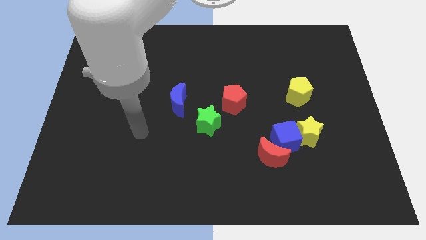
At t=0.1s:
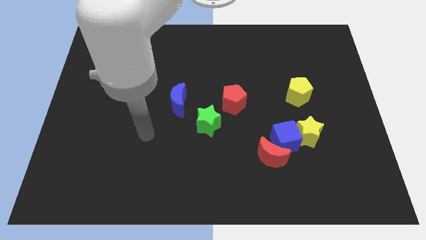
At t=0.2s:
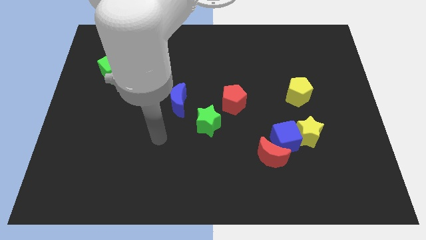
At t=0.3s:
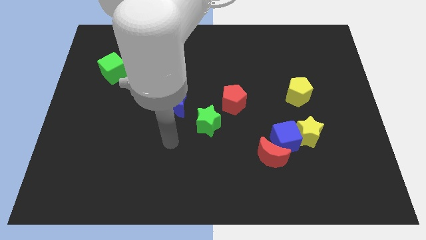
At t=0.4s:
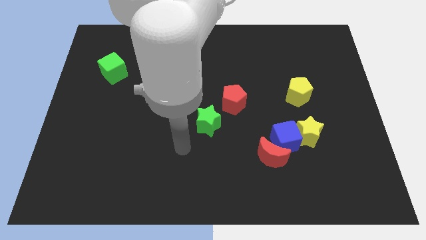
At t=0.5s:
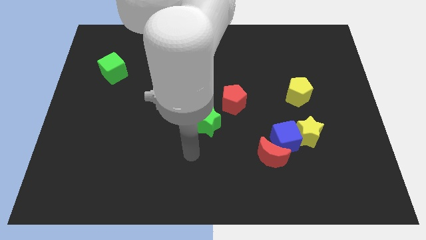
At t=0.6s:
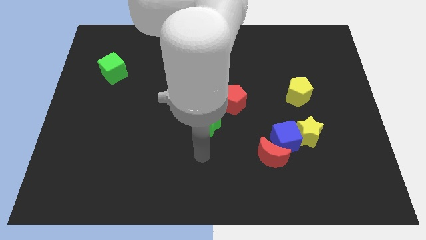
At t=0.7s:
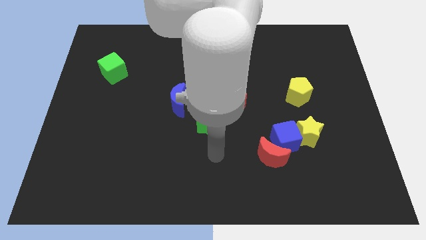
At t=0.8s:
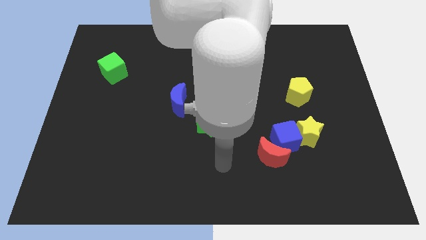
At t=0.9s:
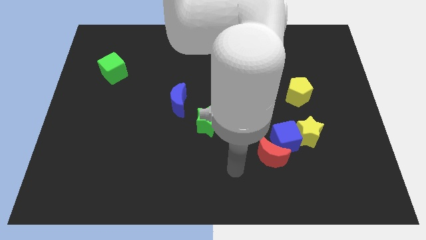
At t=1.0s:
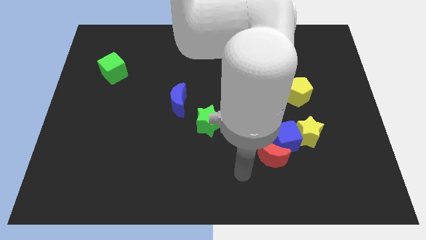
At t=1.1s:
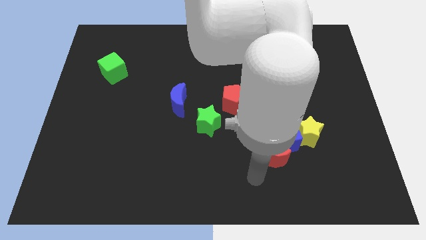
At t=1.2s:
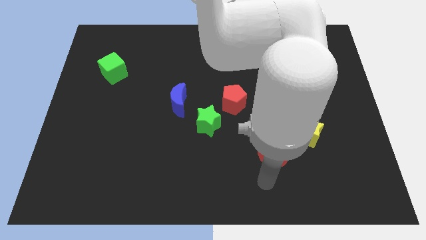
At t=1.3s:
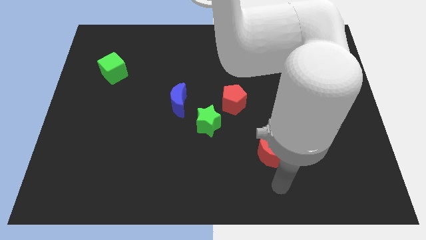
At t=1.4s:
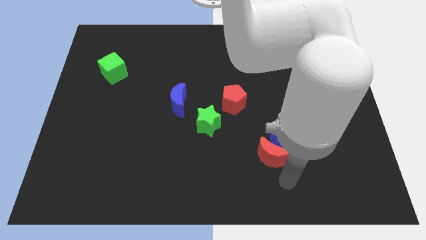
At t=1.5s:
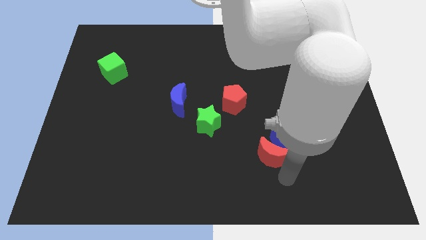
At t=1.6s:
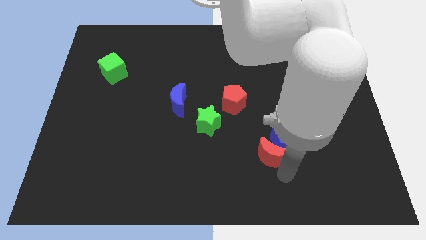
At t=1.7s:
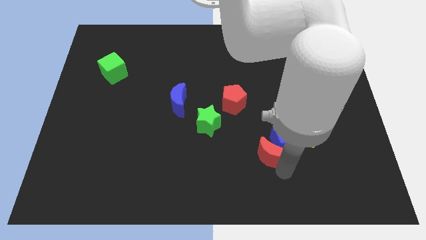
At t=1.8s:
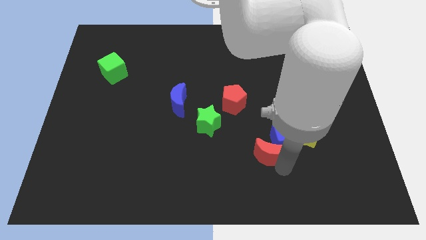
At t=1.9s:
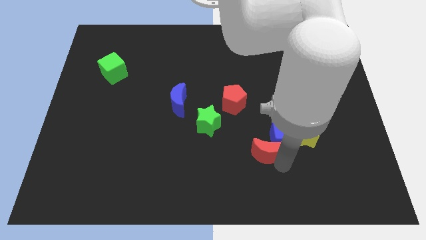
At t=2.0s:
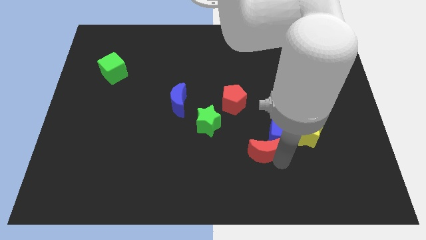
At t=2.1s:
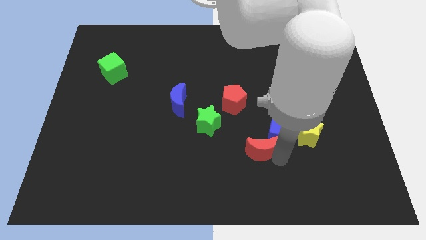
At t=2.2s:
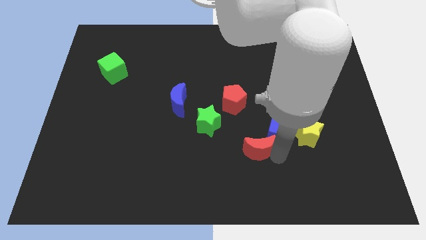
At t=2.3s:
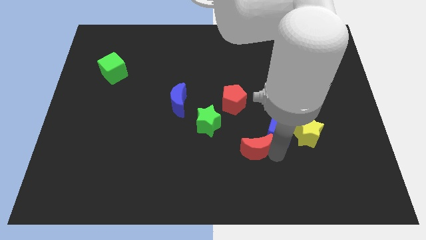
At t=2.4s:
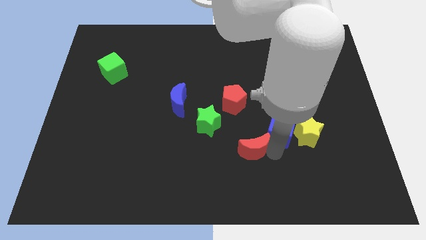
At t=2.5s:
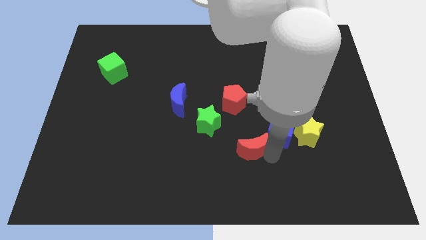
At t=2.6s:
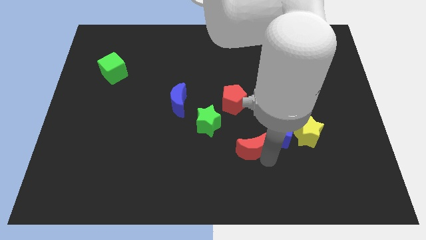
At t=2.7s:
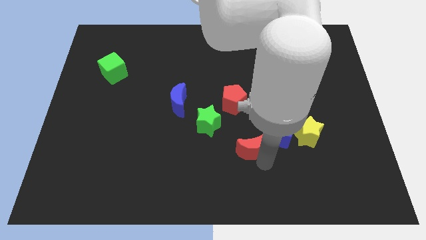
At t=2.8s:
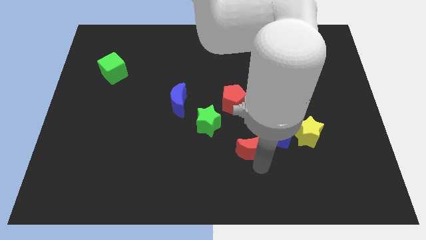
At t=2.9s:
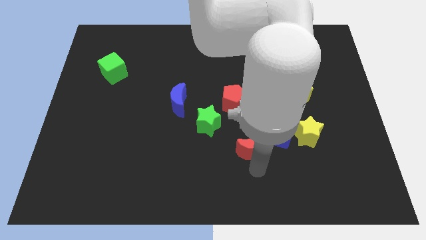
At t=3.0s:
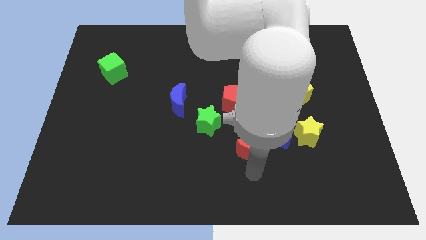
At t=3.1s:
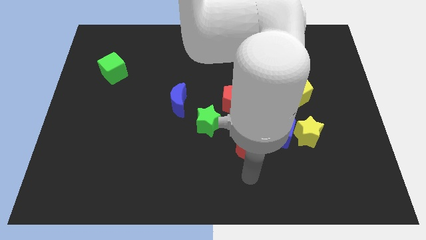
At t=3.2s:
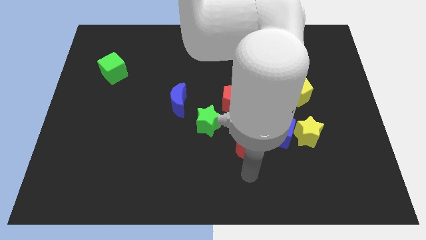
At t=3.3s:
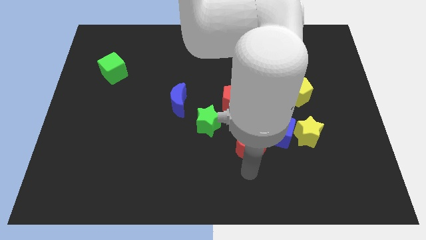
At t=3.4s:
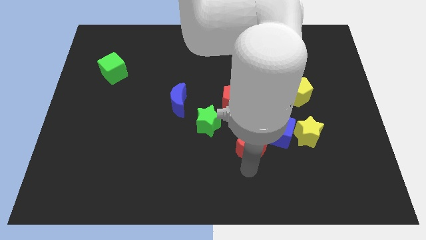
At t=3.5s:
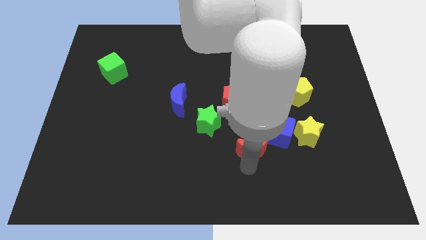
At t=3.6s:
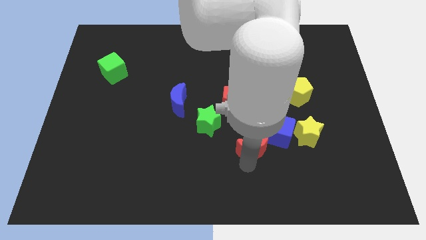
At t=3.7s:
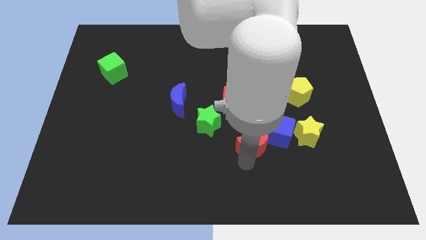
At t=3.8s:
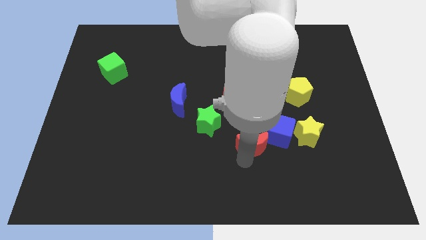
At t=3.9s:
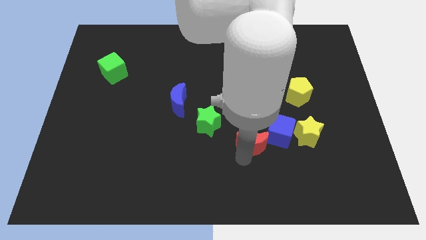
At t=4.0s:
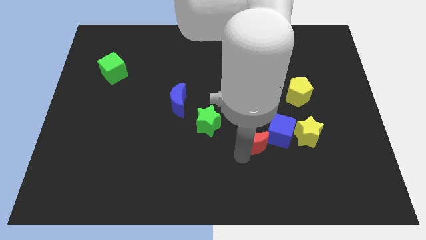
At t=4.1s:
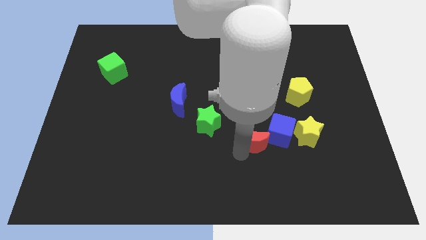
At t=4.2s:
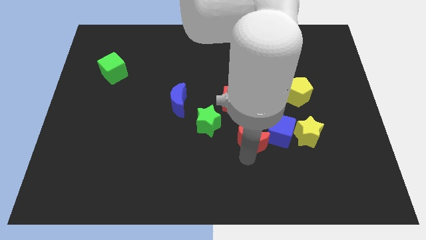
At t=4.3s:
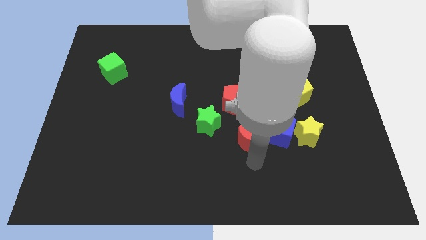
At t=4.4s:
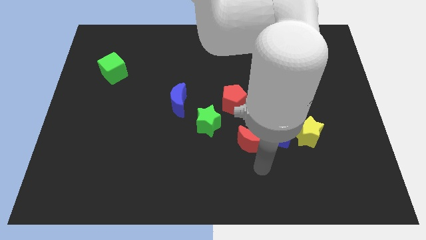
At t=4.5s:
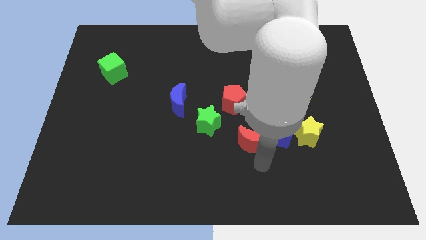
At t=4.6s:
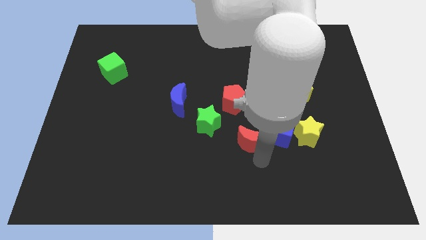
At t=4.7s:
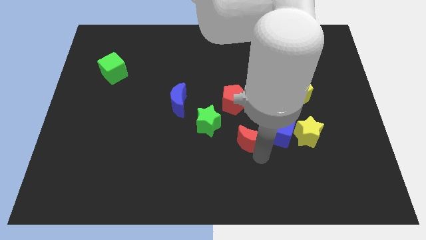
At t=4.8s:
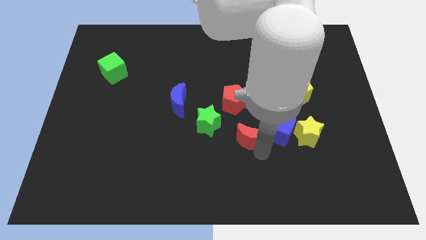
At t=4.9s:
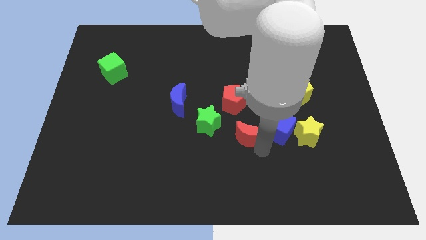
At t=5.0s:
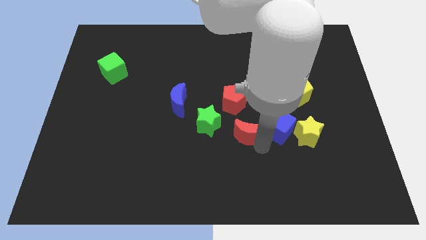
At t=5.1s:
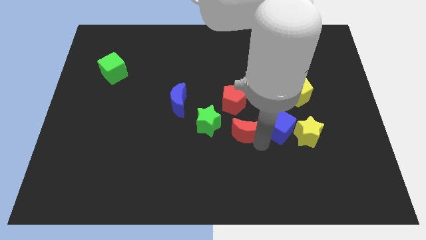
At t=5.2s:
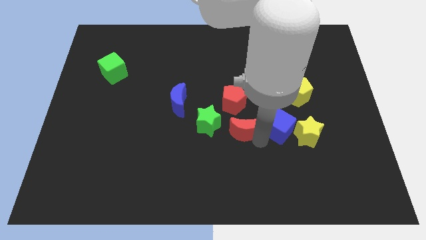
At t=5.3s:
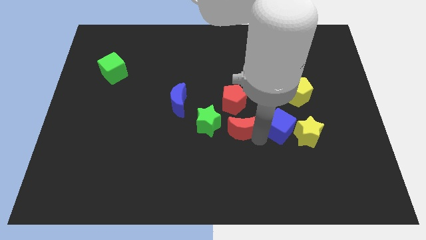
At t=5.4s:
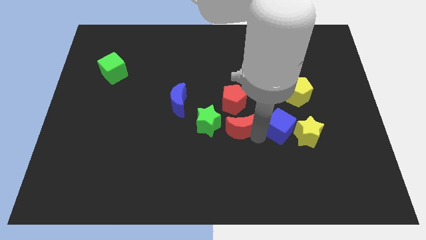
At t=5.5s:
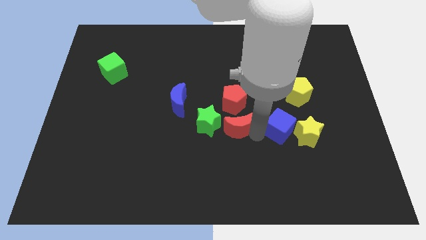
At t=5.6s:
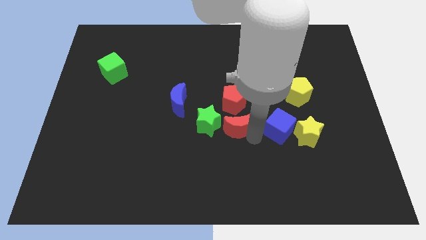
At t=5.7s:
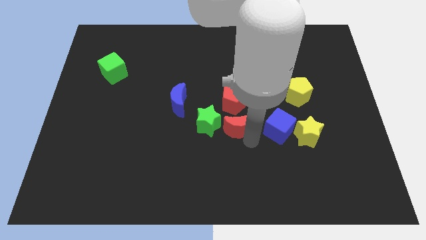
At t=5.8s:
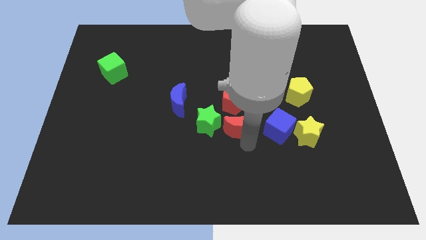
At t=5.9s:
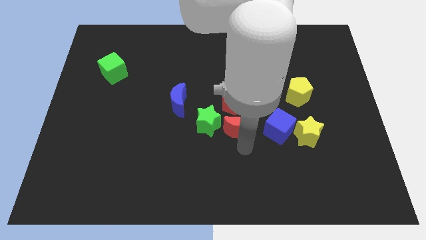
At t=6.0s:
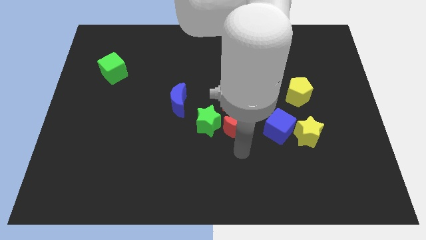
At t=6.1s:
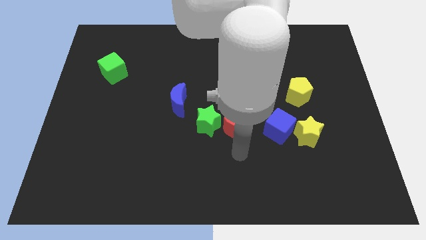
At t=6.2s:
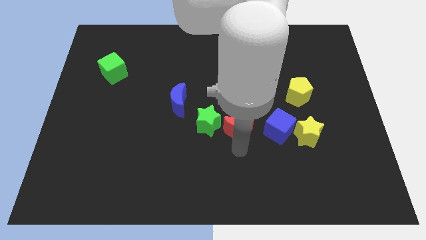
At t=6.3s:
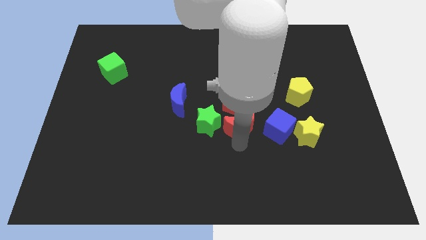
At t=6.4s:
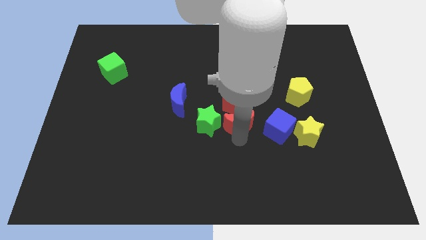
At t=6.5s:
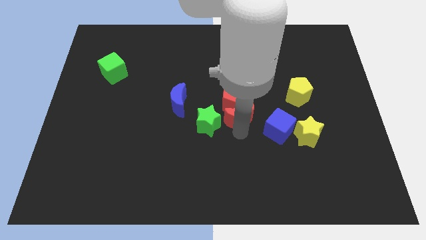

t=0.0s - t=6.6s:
push the red moon to the red pentagon

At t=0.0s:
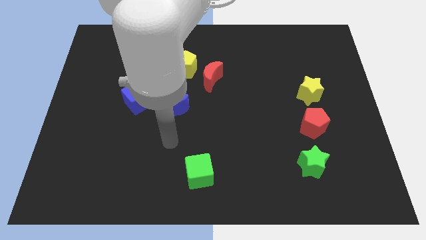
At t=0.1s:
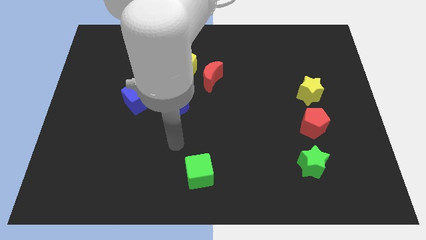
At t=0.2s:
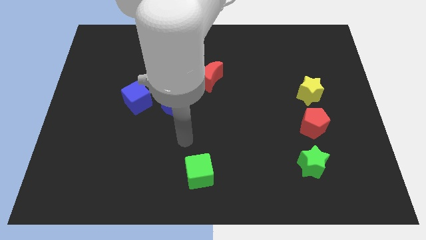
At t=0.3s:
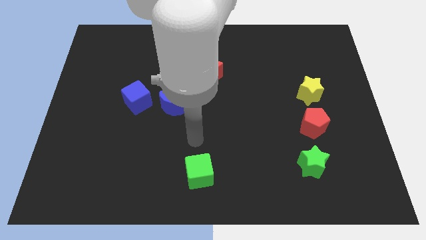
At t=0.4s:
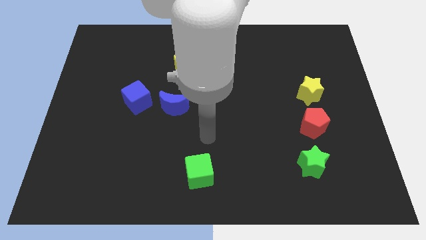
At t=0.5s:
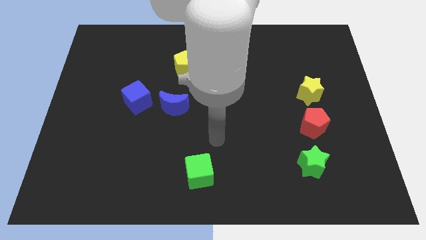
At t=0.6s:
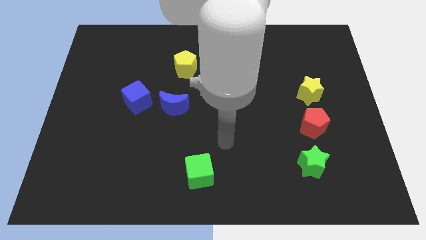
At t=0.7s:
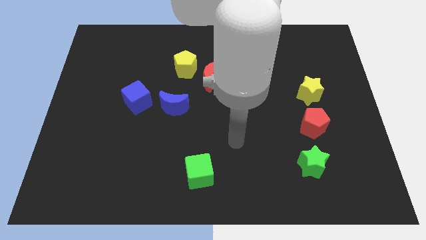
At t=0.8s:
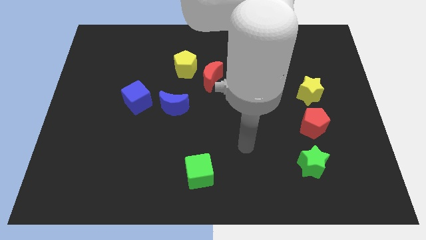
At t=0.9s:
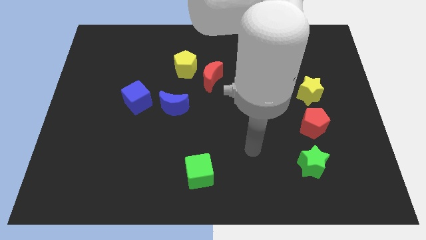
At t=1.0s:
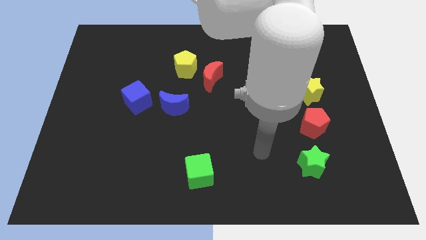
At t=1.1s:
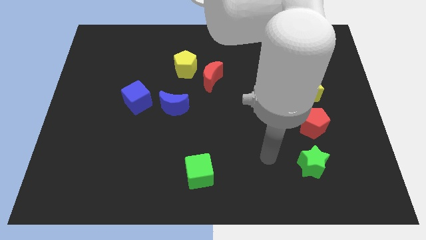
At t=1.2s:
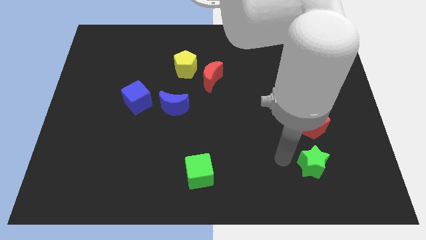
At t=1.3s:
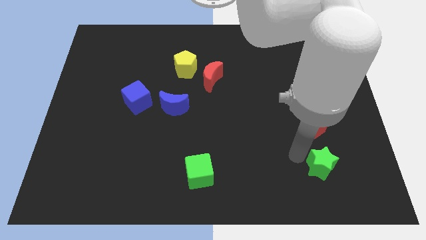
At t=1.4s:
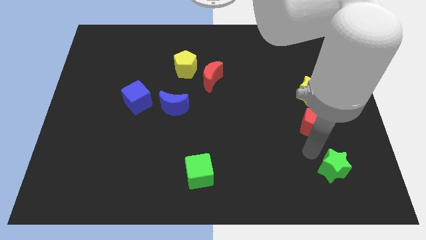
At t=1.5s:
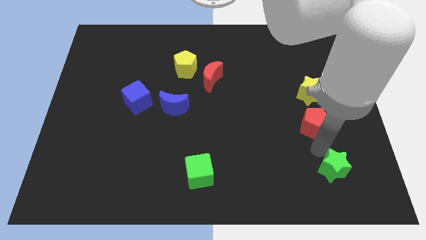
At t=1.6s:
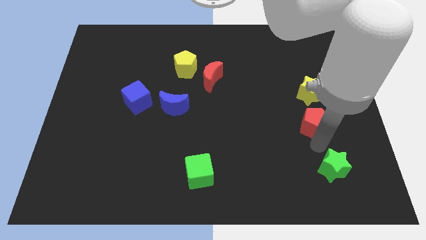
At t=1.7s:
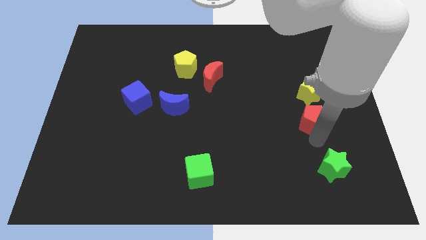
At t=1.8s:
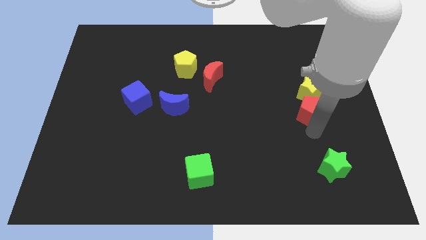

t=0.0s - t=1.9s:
put the red pentagon to the yellow star

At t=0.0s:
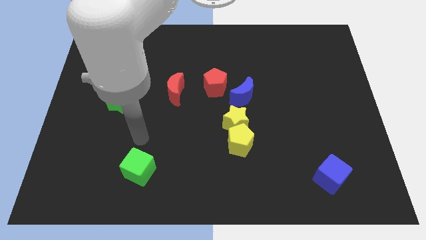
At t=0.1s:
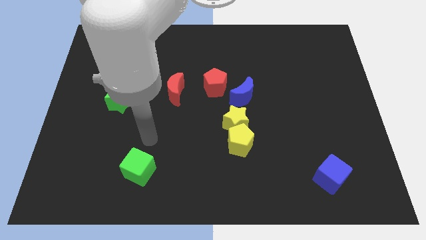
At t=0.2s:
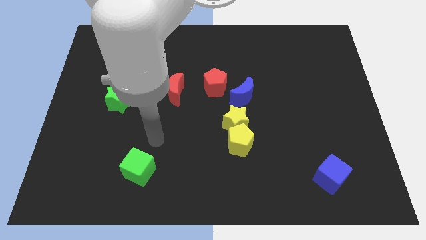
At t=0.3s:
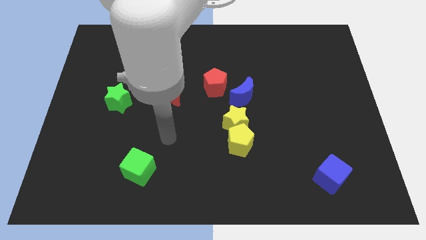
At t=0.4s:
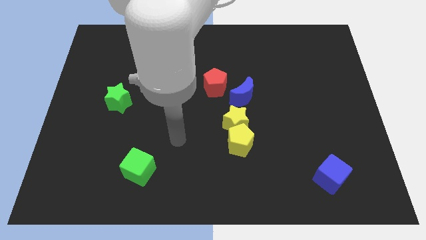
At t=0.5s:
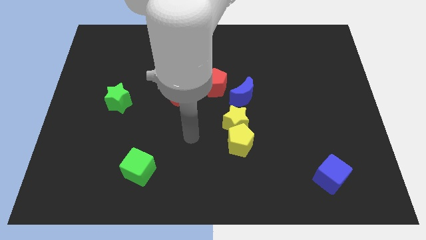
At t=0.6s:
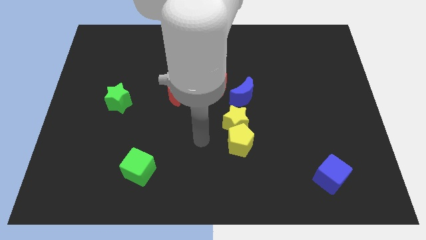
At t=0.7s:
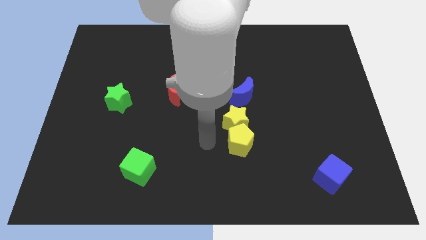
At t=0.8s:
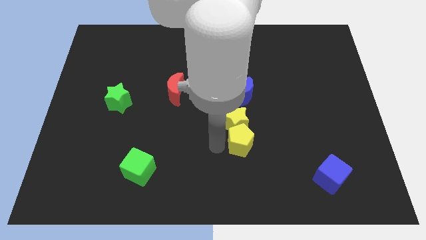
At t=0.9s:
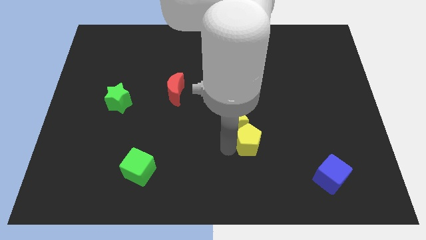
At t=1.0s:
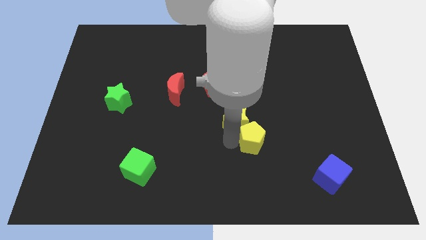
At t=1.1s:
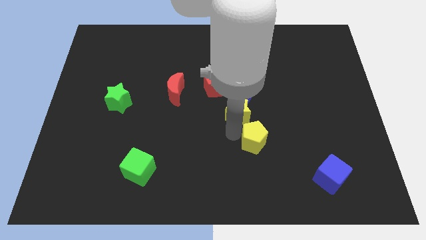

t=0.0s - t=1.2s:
put the yellow star towards the blue moon
